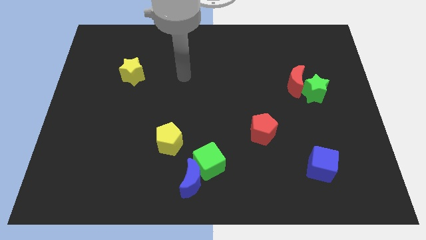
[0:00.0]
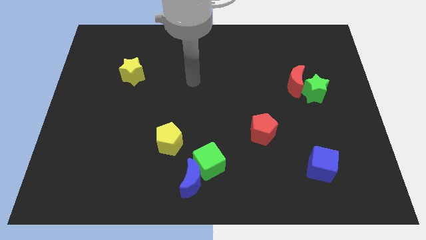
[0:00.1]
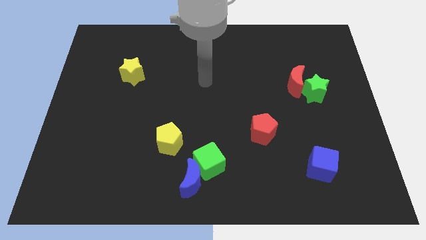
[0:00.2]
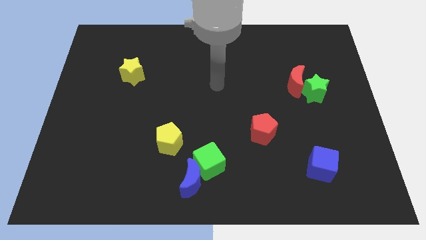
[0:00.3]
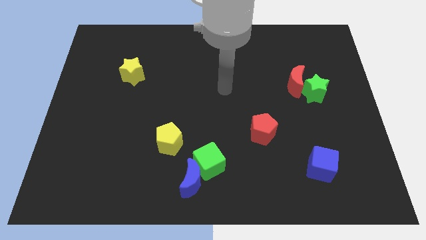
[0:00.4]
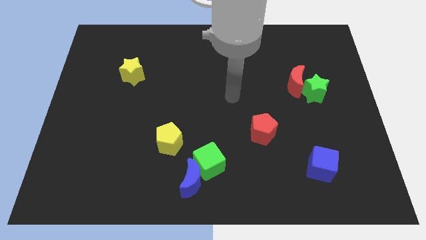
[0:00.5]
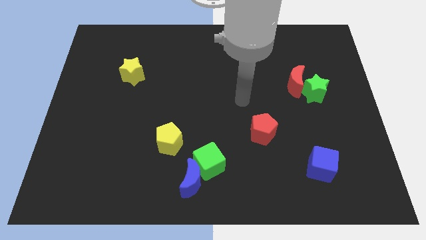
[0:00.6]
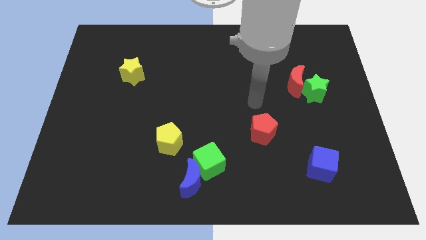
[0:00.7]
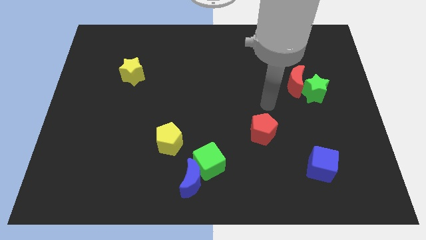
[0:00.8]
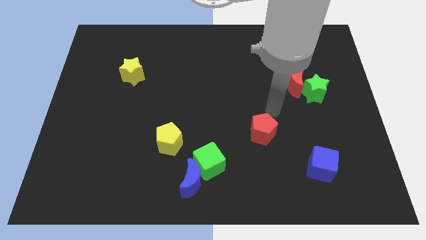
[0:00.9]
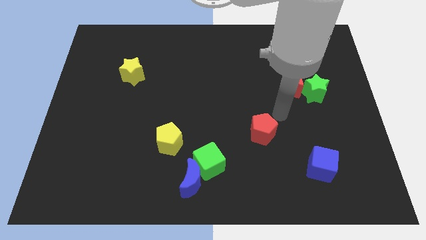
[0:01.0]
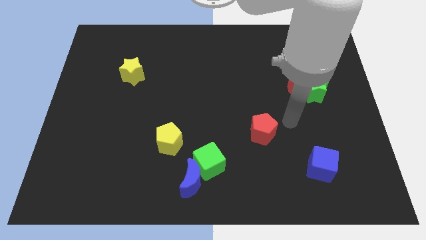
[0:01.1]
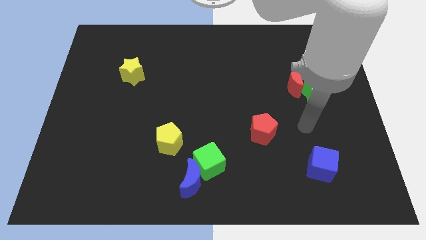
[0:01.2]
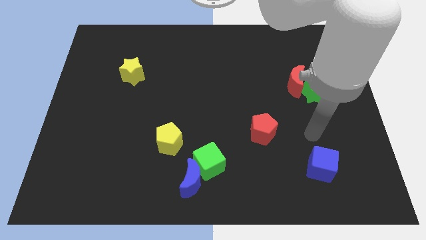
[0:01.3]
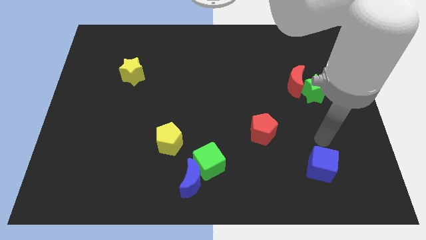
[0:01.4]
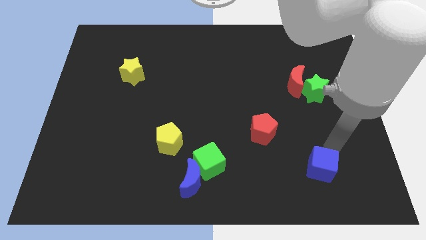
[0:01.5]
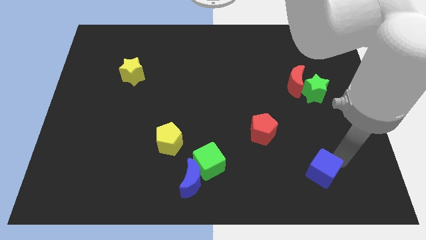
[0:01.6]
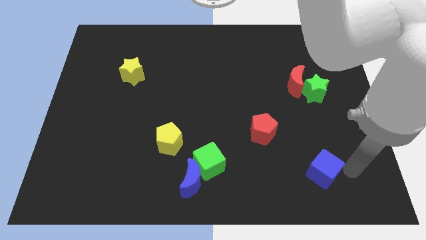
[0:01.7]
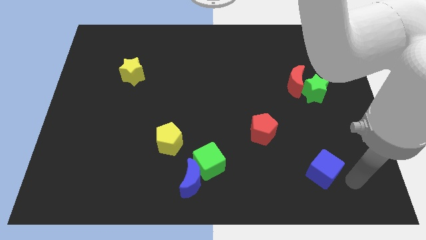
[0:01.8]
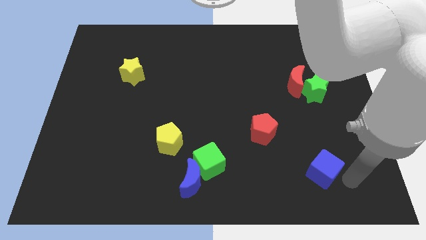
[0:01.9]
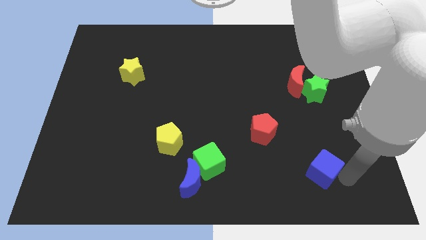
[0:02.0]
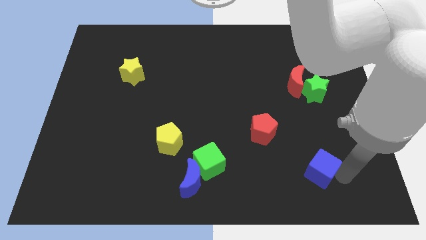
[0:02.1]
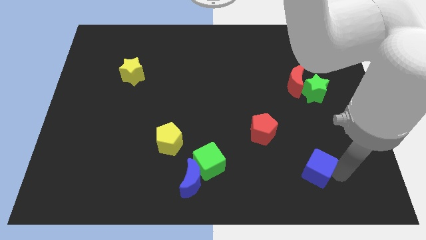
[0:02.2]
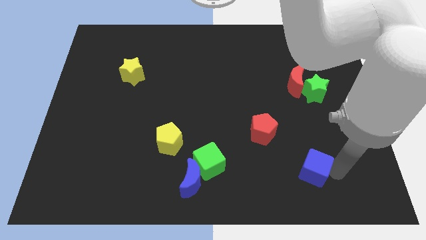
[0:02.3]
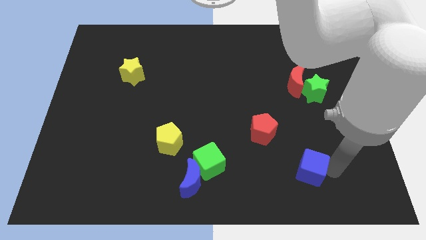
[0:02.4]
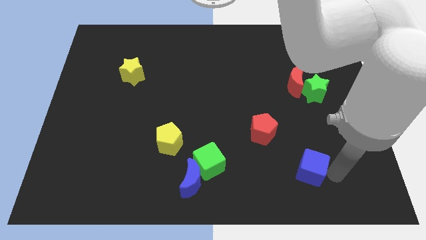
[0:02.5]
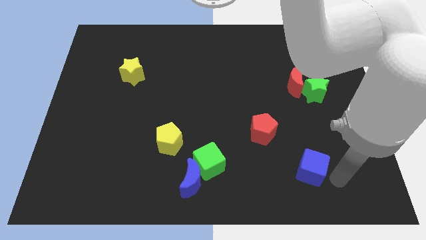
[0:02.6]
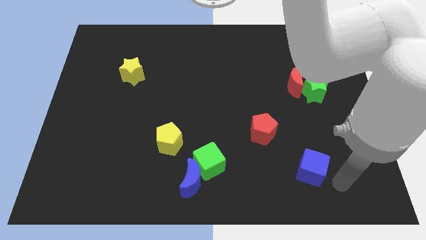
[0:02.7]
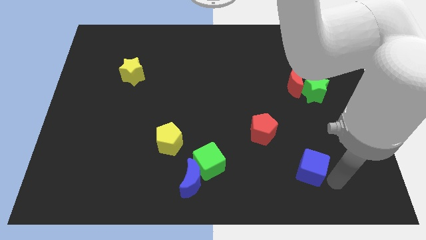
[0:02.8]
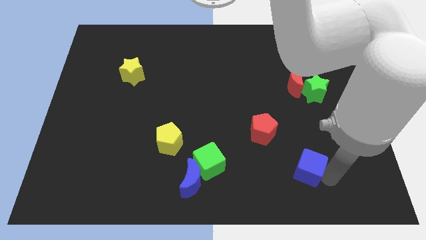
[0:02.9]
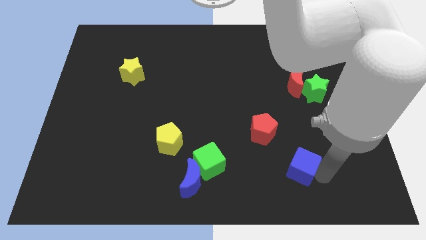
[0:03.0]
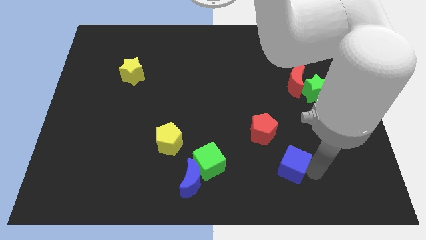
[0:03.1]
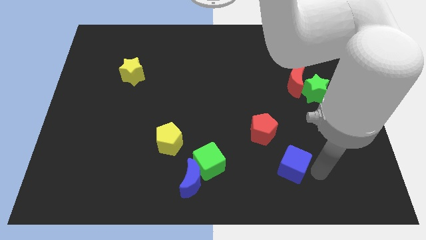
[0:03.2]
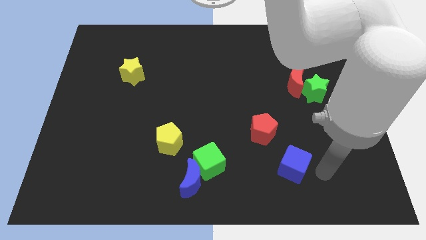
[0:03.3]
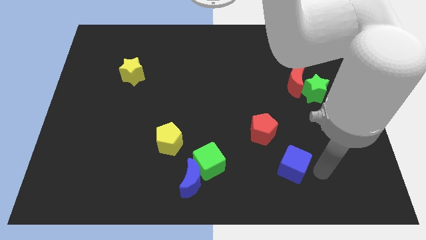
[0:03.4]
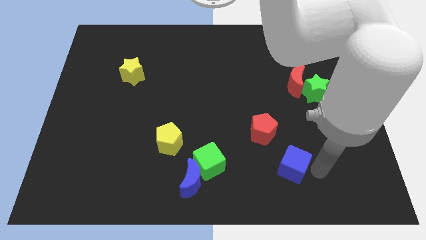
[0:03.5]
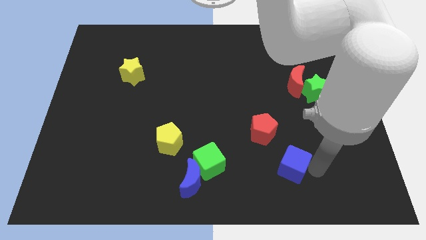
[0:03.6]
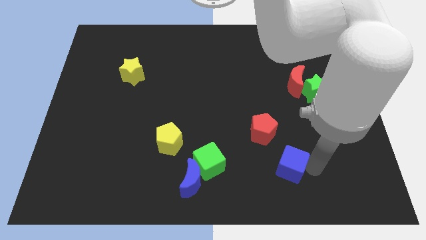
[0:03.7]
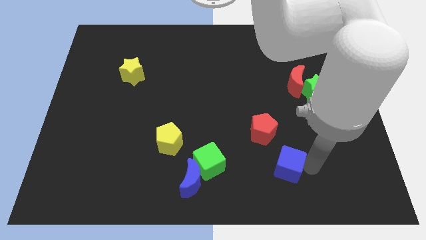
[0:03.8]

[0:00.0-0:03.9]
slide the blue cube a little left

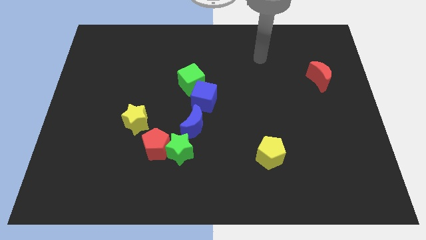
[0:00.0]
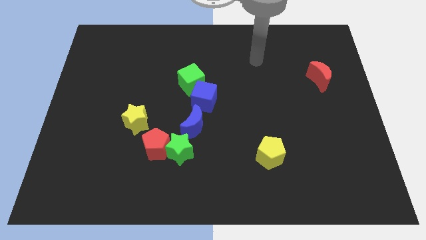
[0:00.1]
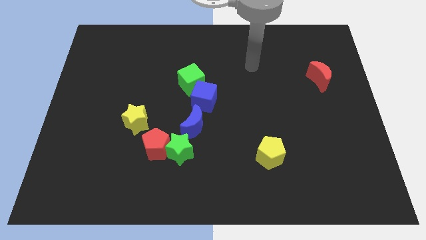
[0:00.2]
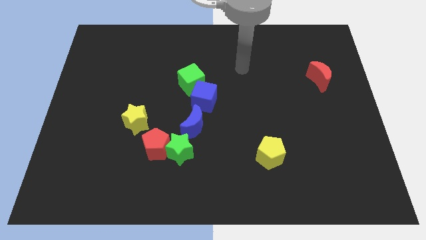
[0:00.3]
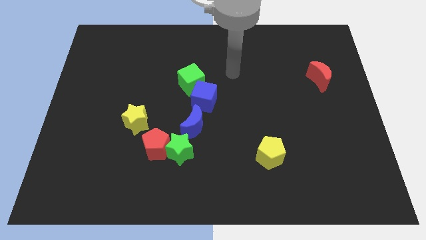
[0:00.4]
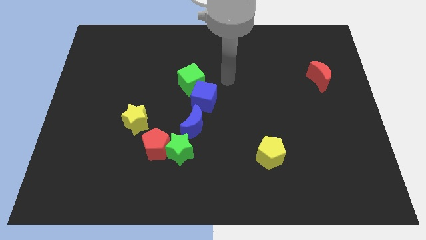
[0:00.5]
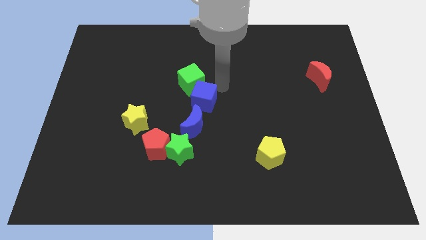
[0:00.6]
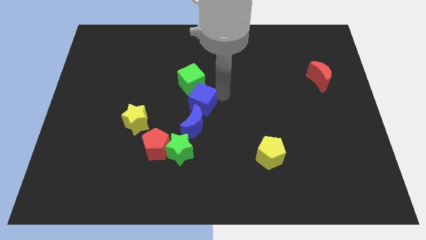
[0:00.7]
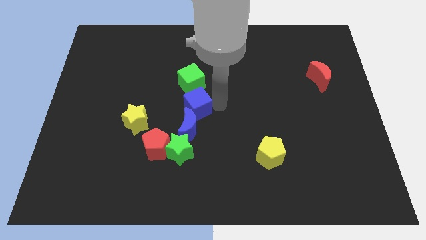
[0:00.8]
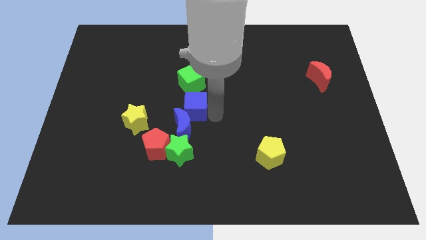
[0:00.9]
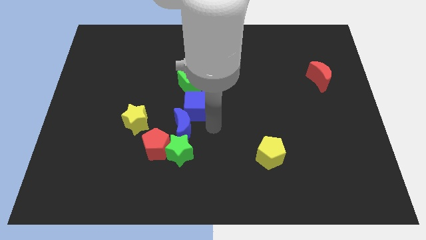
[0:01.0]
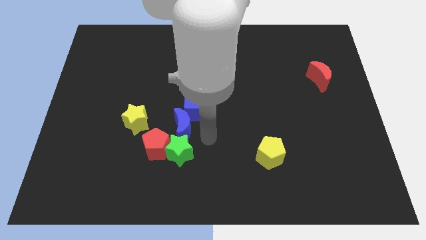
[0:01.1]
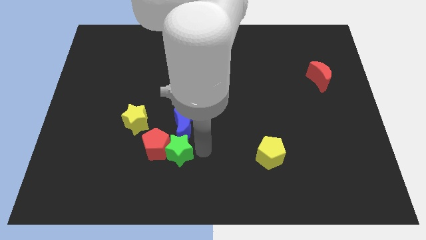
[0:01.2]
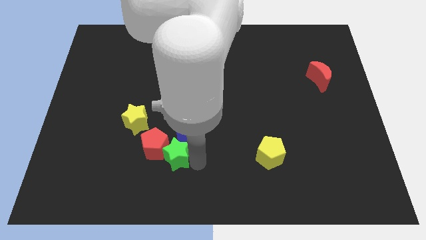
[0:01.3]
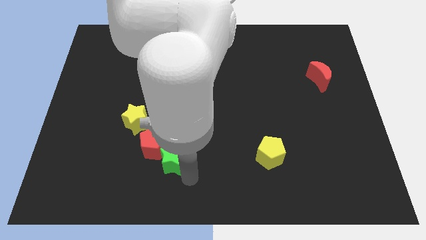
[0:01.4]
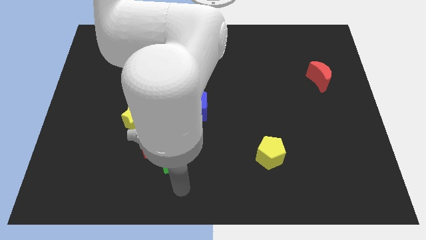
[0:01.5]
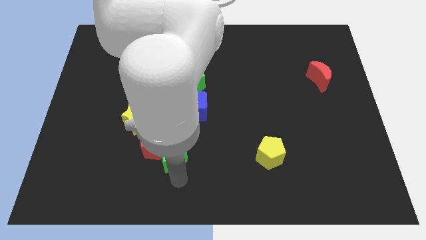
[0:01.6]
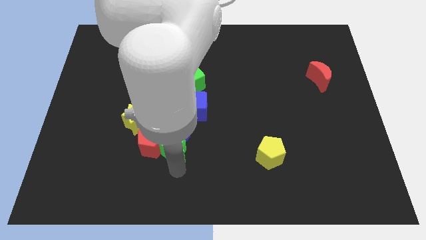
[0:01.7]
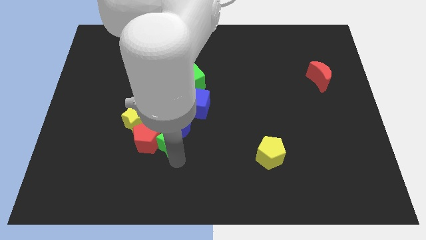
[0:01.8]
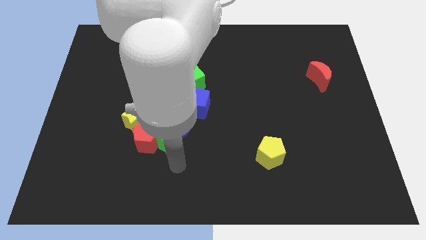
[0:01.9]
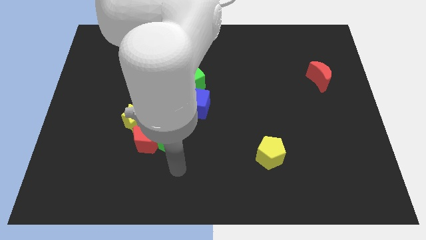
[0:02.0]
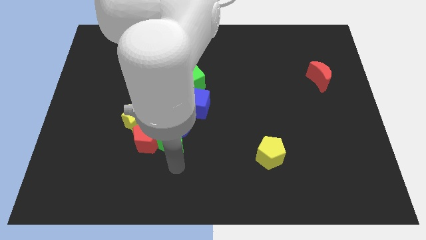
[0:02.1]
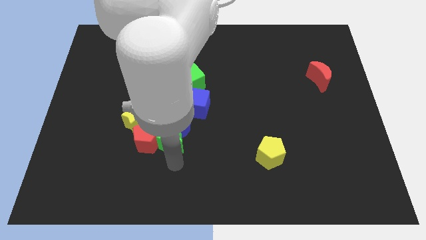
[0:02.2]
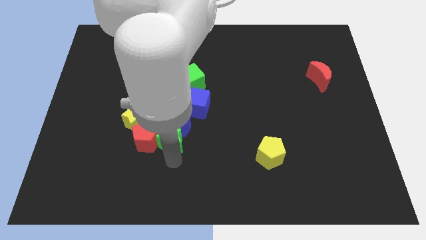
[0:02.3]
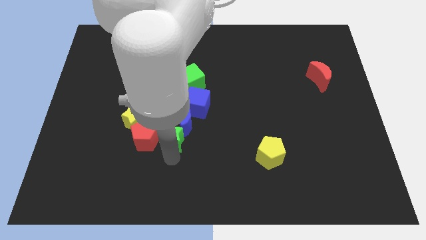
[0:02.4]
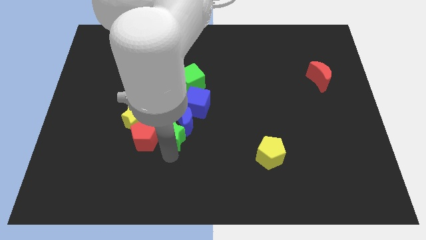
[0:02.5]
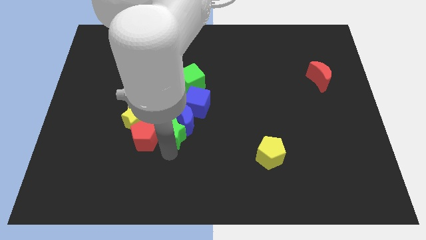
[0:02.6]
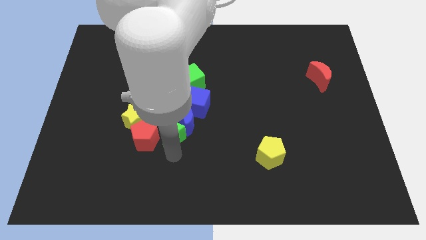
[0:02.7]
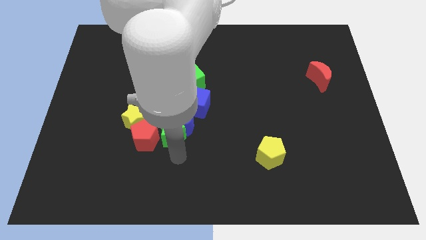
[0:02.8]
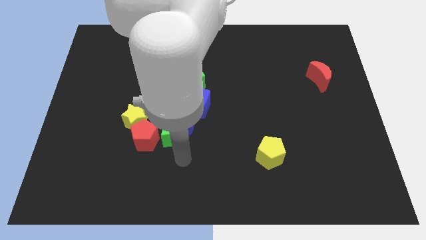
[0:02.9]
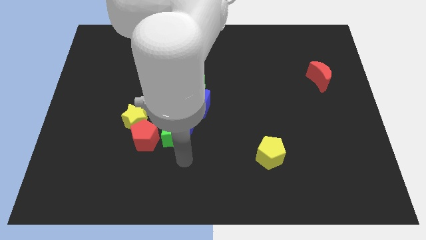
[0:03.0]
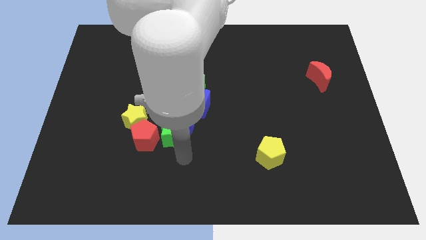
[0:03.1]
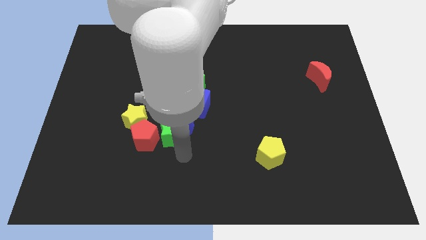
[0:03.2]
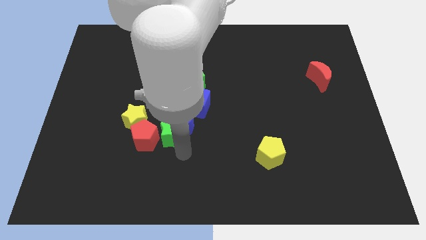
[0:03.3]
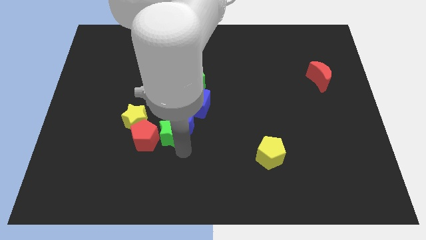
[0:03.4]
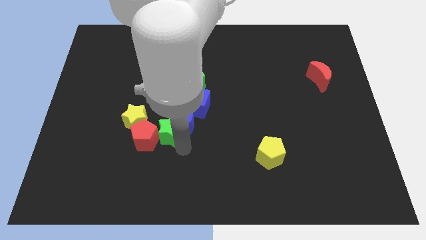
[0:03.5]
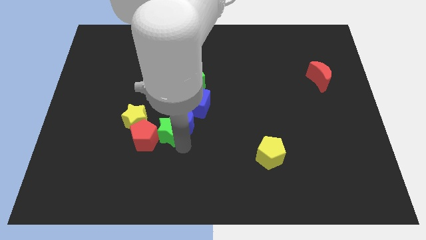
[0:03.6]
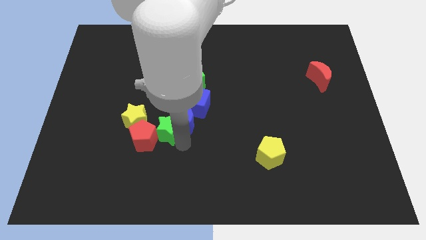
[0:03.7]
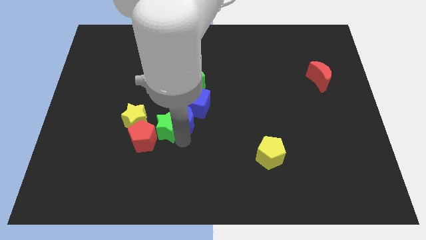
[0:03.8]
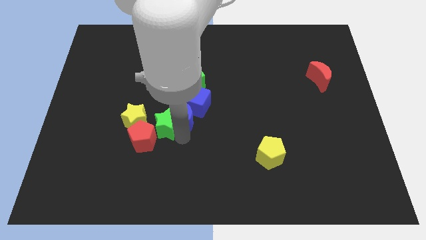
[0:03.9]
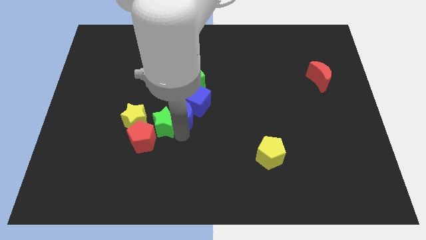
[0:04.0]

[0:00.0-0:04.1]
slide the green star diagonally up and left a bit
